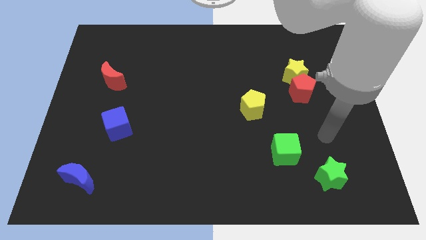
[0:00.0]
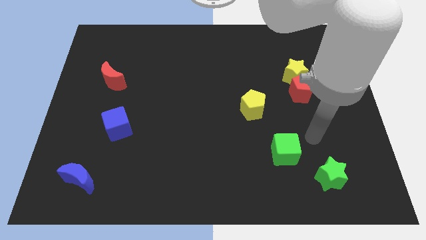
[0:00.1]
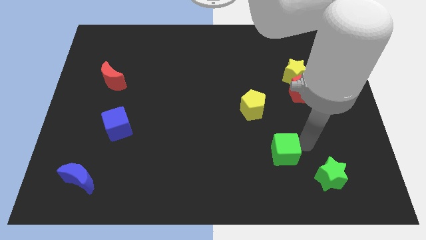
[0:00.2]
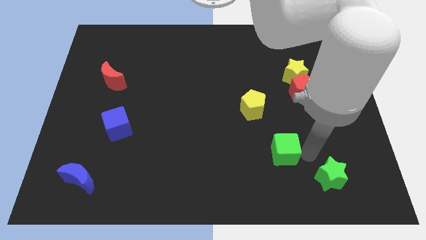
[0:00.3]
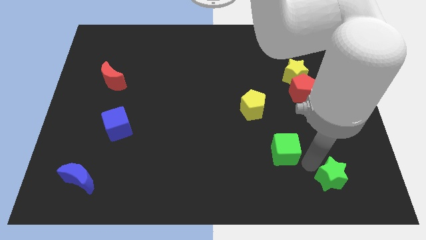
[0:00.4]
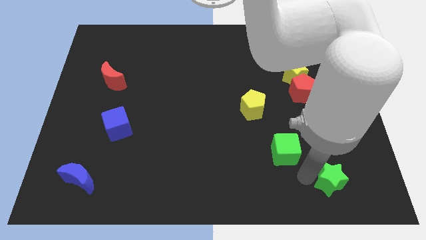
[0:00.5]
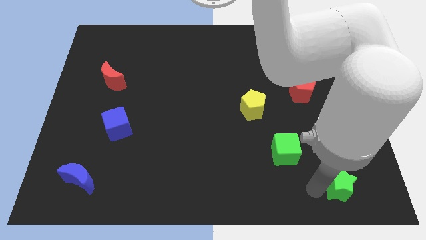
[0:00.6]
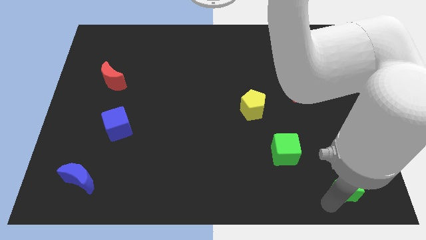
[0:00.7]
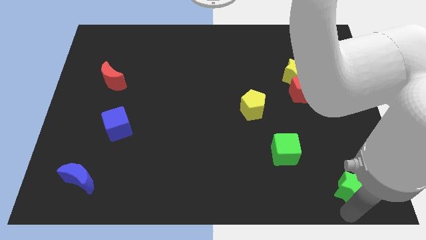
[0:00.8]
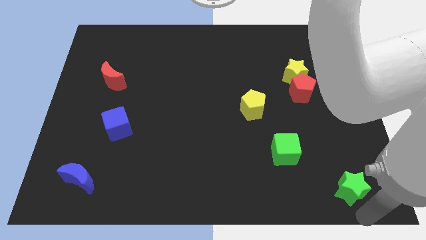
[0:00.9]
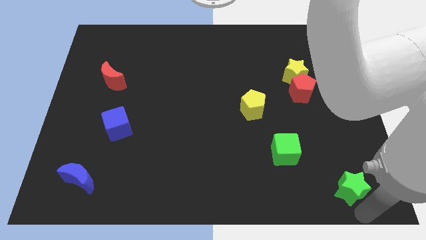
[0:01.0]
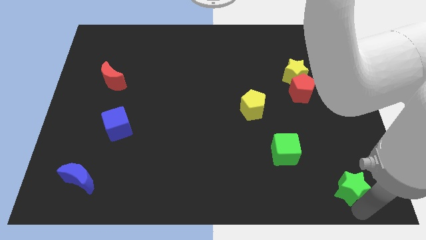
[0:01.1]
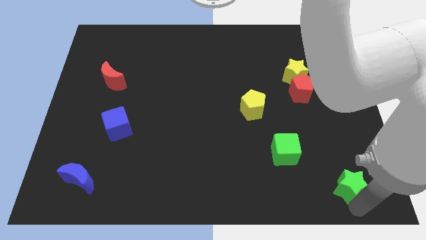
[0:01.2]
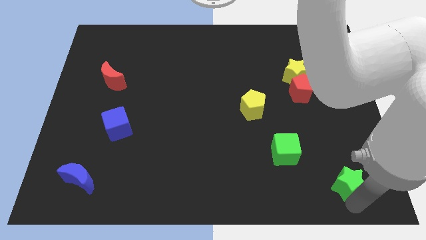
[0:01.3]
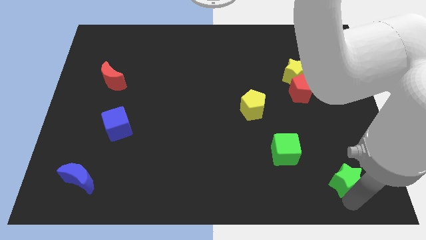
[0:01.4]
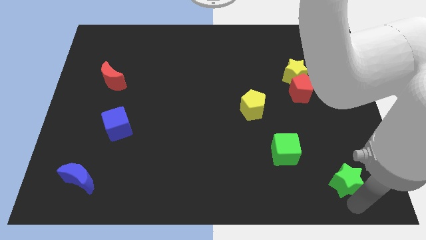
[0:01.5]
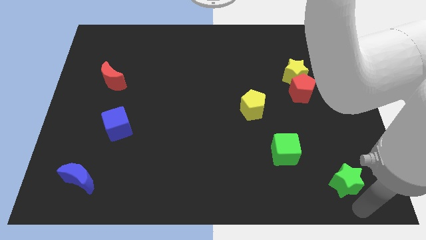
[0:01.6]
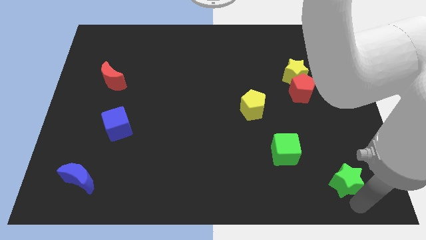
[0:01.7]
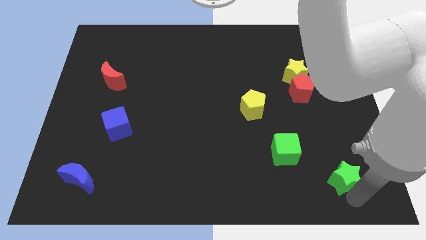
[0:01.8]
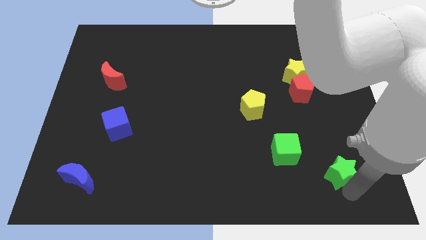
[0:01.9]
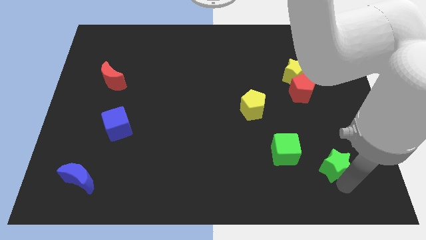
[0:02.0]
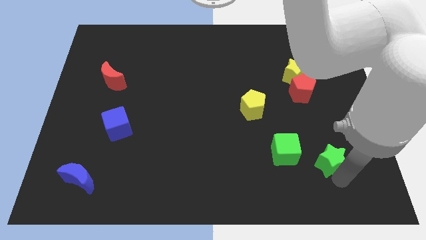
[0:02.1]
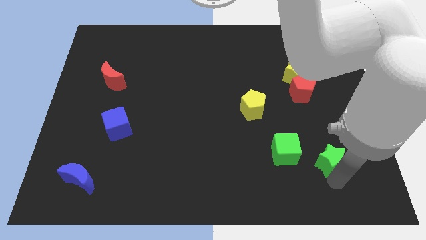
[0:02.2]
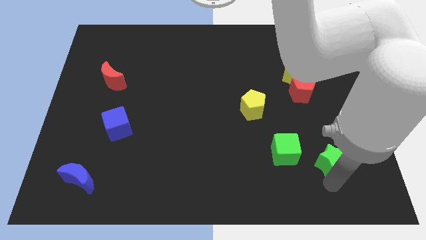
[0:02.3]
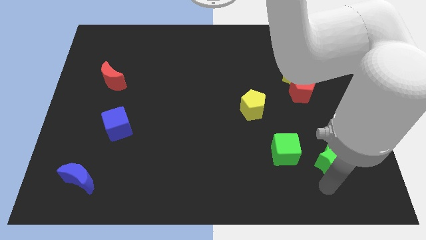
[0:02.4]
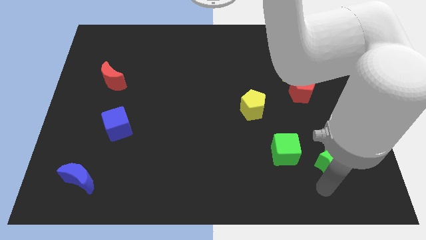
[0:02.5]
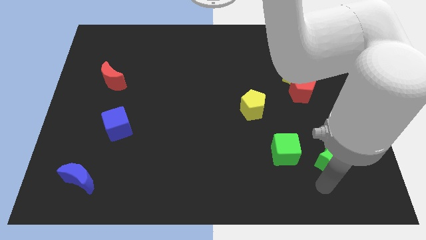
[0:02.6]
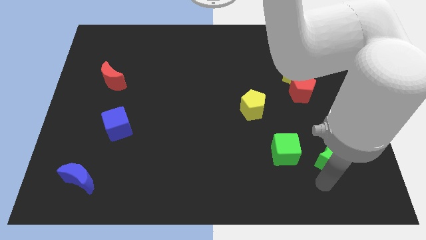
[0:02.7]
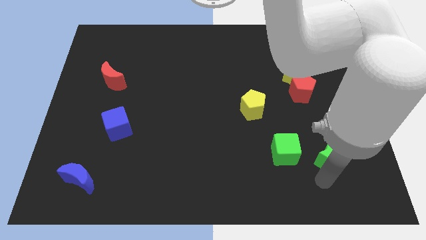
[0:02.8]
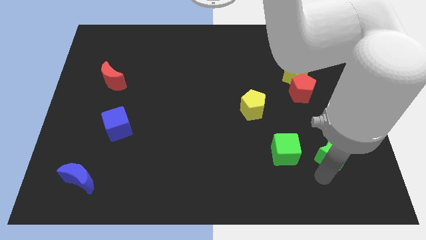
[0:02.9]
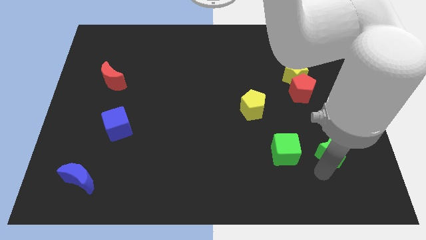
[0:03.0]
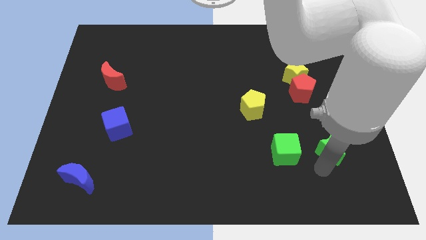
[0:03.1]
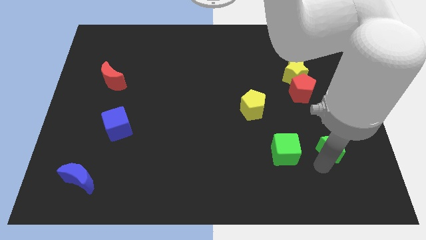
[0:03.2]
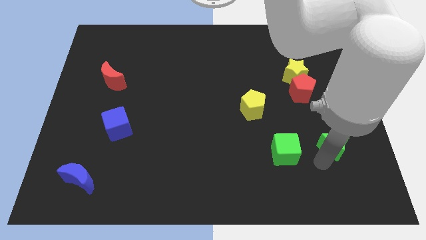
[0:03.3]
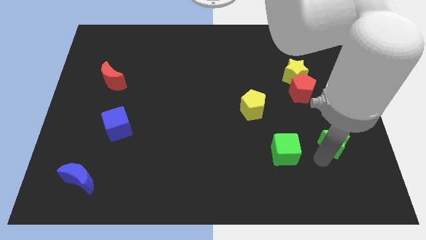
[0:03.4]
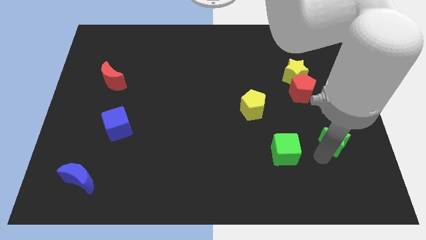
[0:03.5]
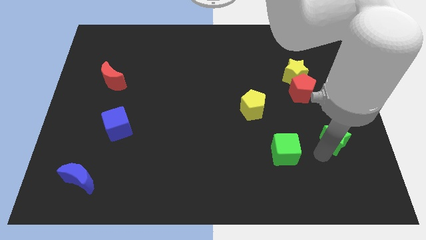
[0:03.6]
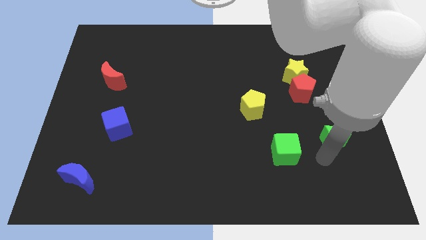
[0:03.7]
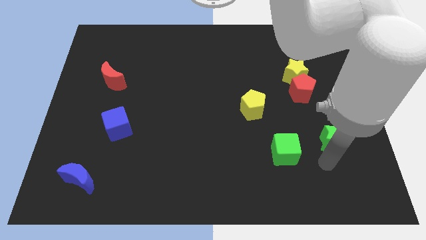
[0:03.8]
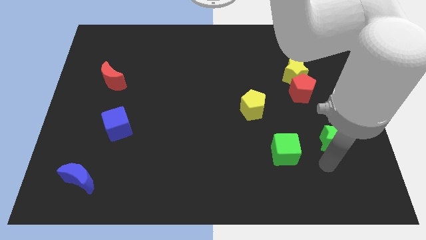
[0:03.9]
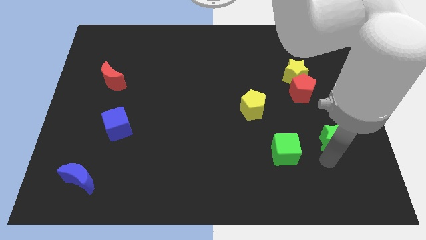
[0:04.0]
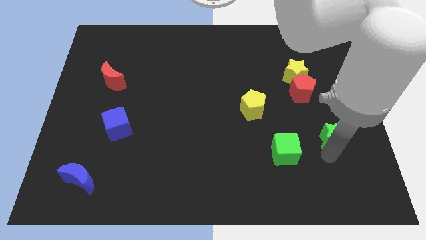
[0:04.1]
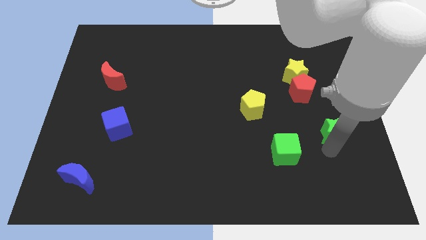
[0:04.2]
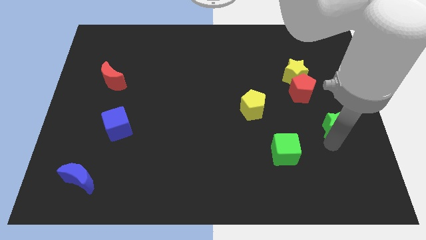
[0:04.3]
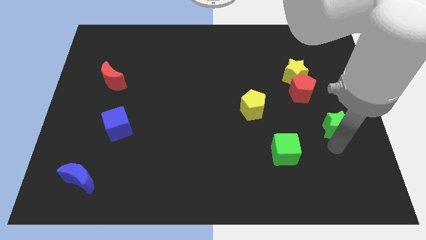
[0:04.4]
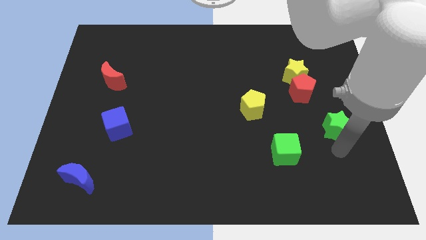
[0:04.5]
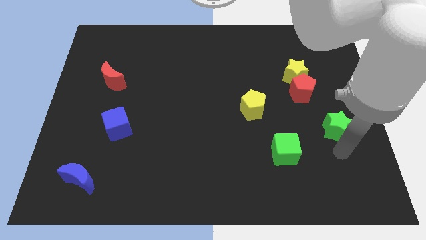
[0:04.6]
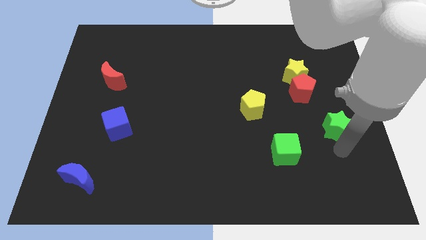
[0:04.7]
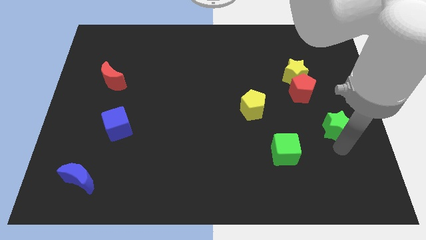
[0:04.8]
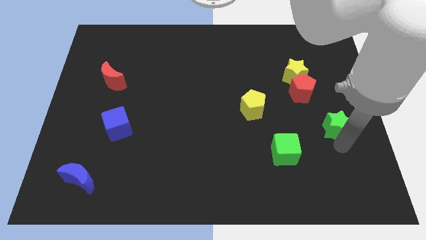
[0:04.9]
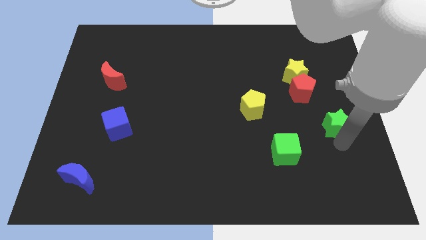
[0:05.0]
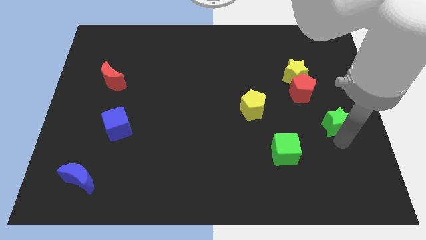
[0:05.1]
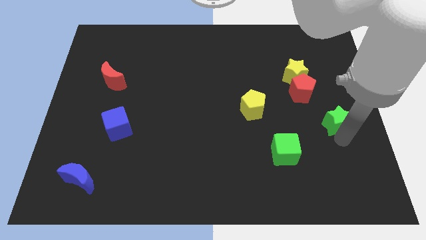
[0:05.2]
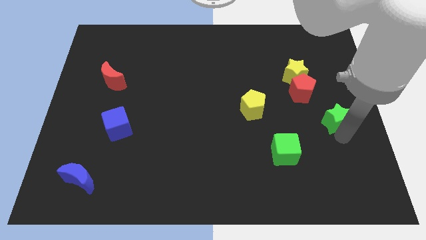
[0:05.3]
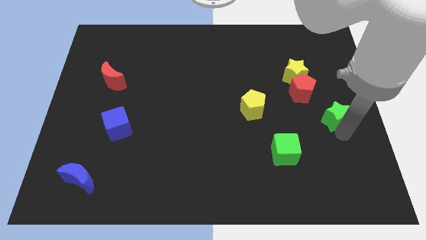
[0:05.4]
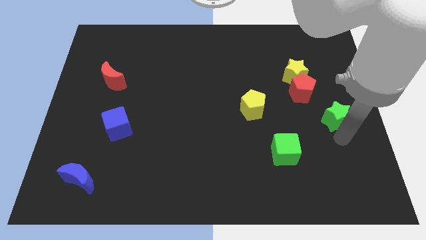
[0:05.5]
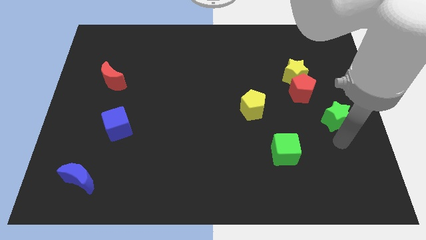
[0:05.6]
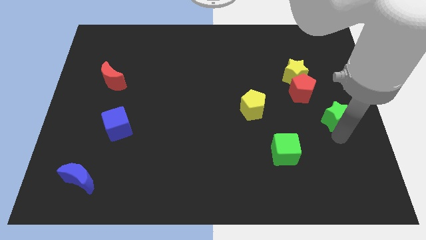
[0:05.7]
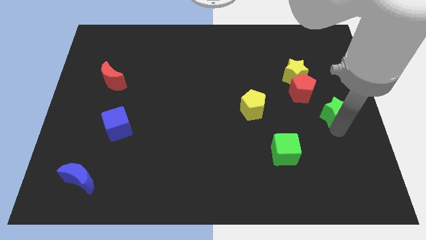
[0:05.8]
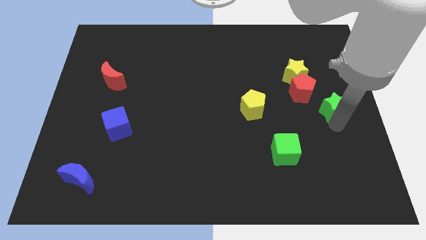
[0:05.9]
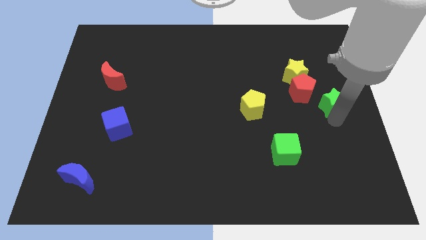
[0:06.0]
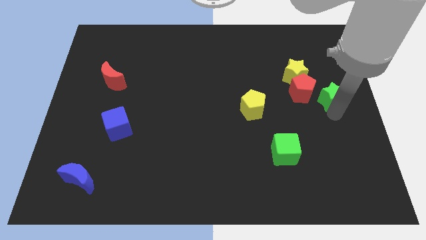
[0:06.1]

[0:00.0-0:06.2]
push the green star upwards

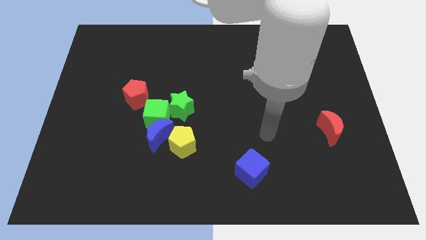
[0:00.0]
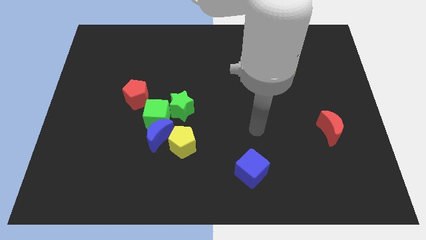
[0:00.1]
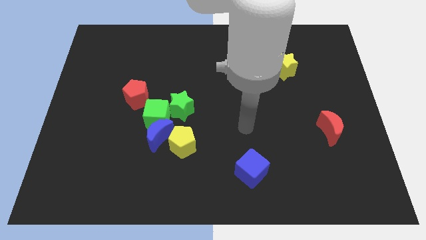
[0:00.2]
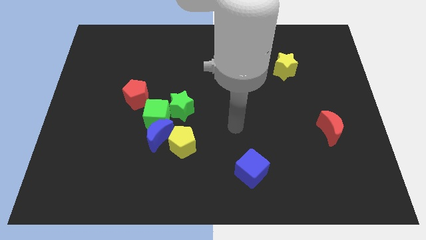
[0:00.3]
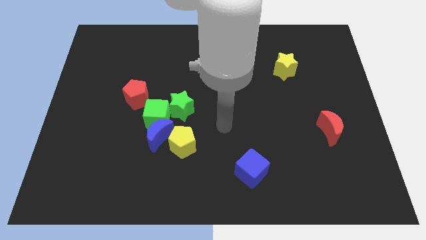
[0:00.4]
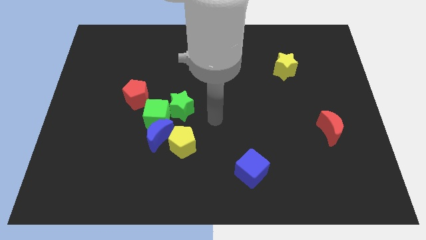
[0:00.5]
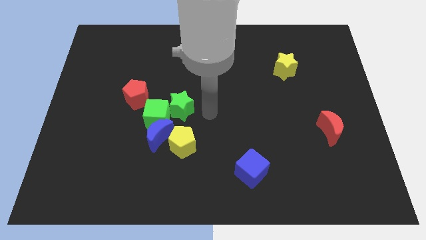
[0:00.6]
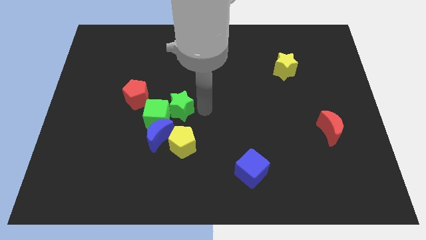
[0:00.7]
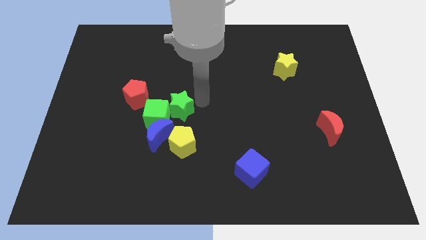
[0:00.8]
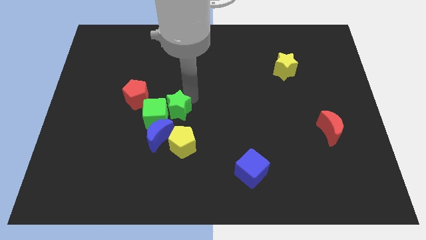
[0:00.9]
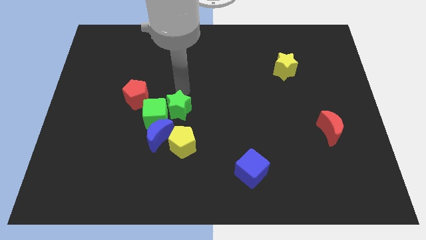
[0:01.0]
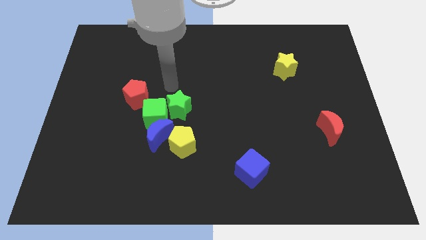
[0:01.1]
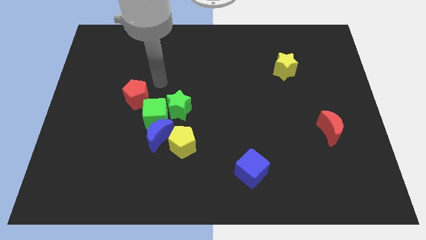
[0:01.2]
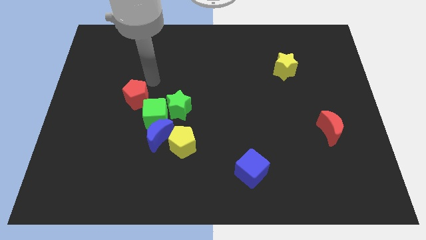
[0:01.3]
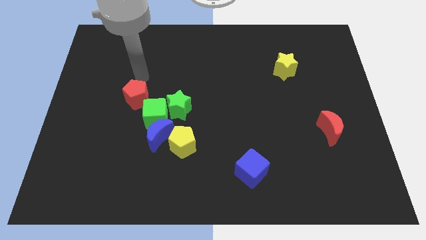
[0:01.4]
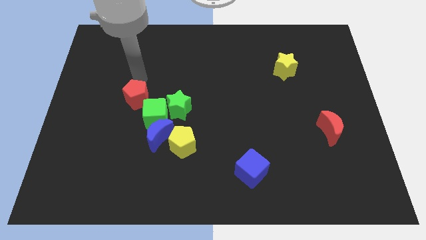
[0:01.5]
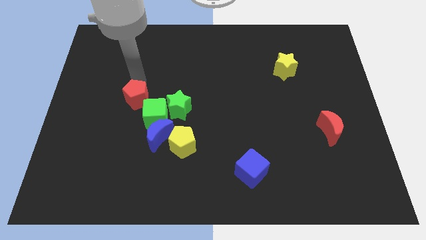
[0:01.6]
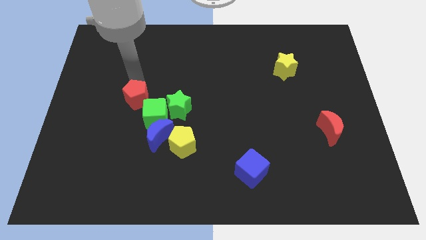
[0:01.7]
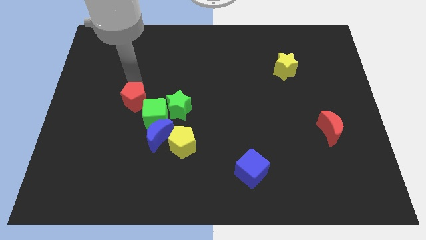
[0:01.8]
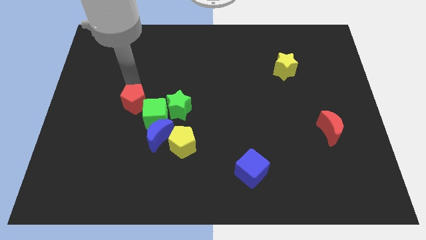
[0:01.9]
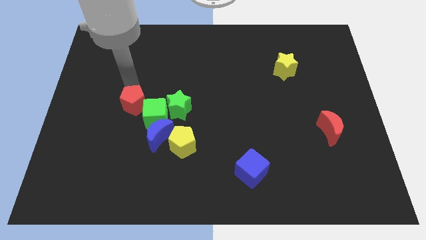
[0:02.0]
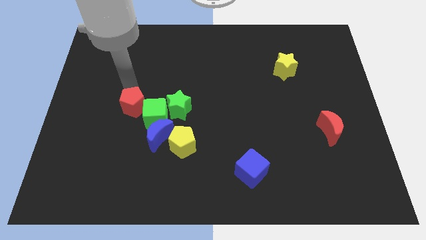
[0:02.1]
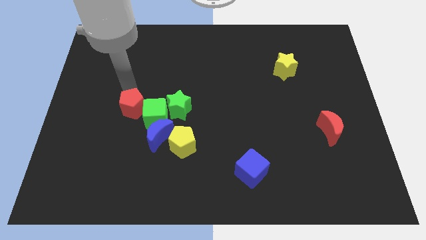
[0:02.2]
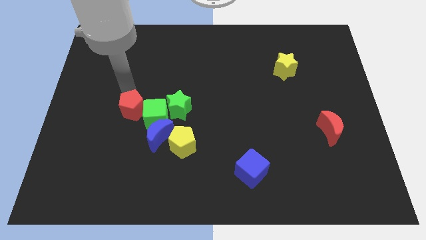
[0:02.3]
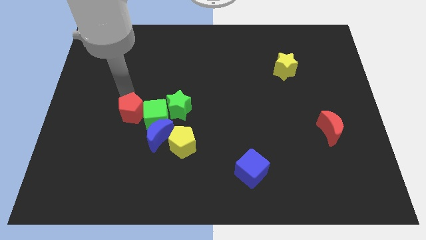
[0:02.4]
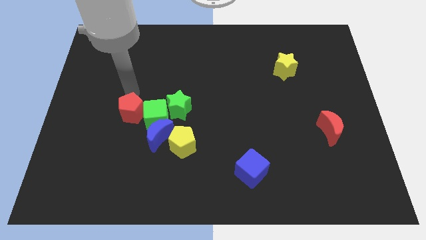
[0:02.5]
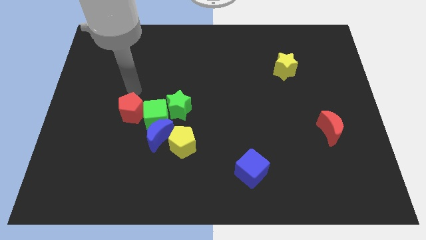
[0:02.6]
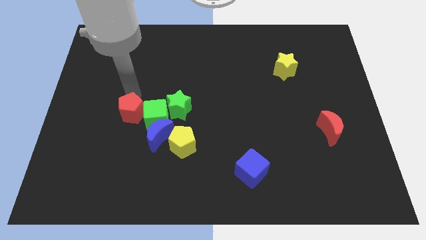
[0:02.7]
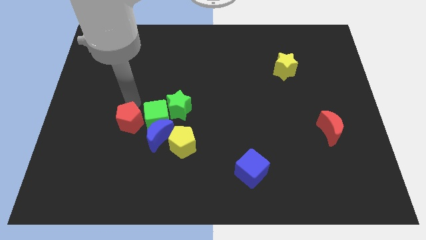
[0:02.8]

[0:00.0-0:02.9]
push the red pentagon down a little bit
